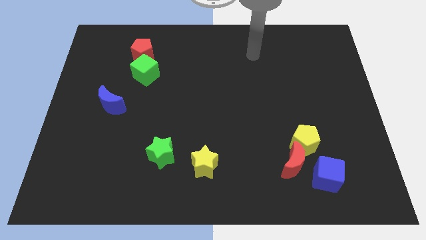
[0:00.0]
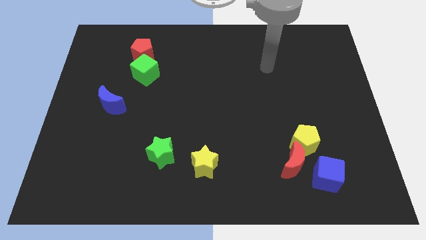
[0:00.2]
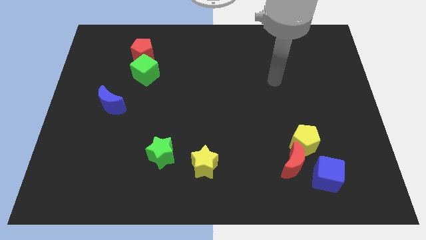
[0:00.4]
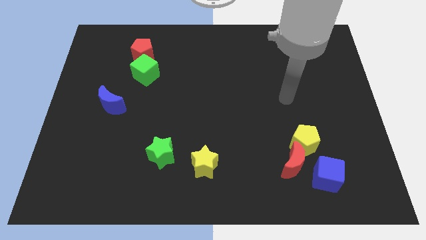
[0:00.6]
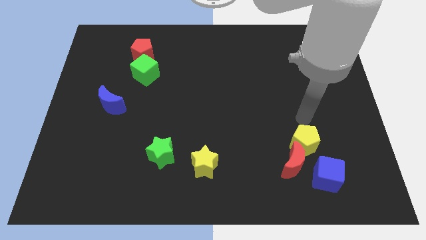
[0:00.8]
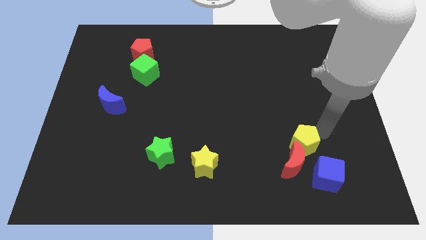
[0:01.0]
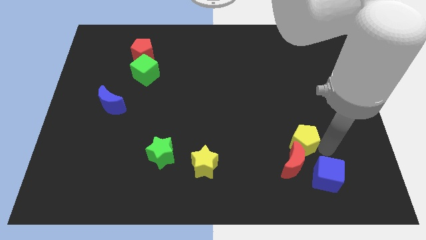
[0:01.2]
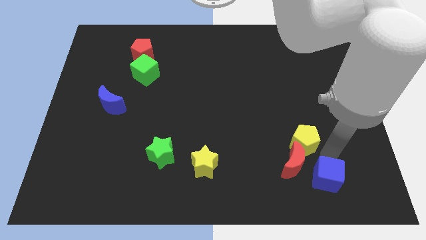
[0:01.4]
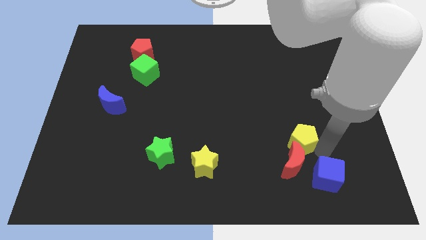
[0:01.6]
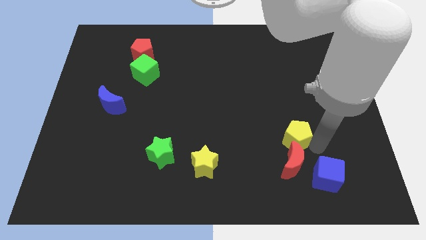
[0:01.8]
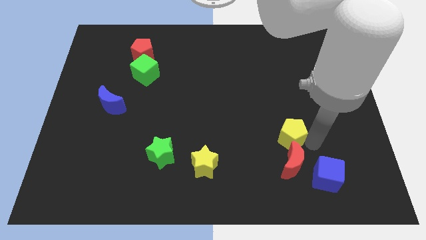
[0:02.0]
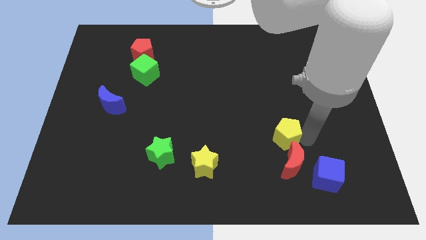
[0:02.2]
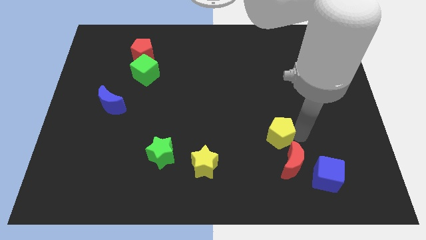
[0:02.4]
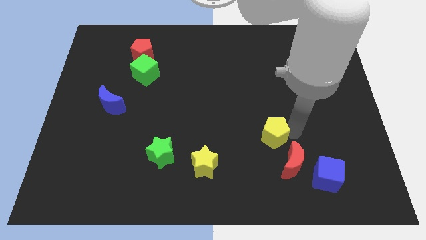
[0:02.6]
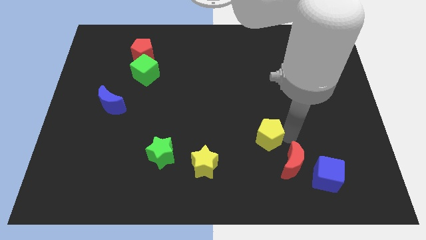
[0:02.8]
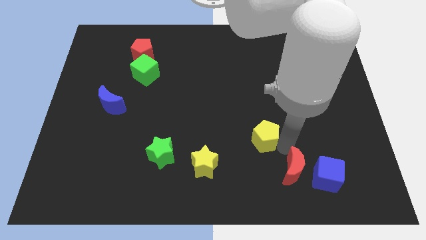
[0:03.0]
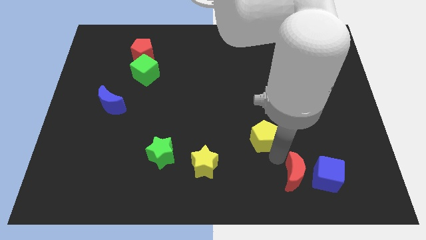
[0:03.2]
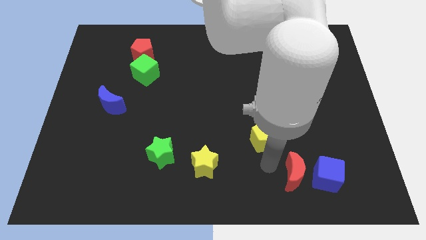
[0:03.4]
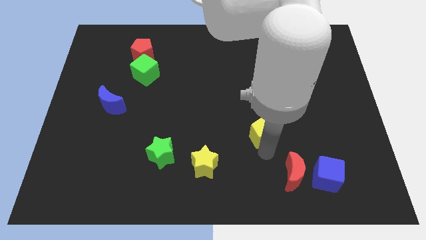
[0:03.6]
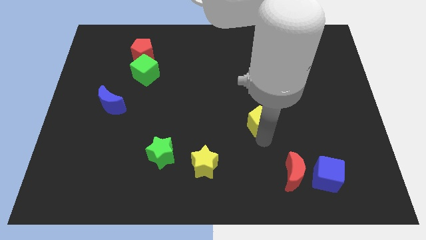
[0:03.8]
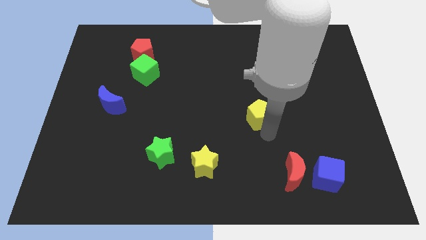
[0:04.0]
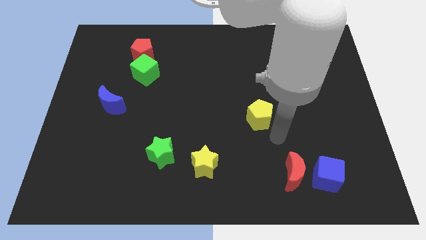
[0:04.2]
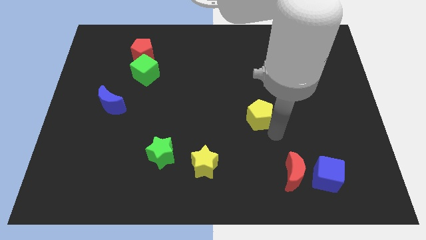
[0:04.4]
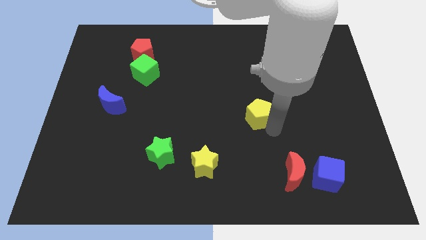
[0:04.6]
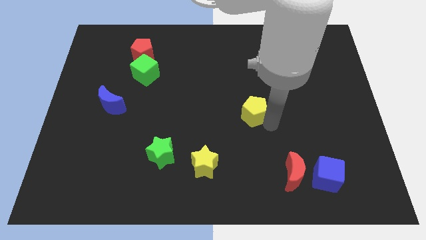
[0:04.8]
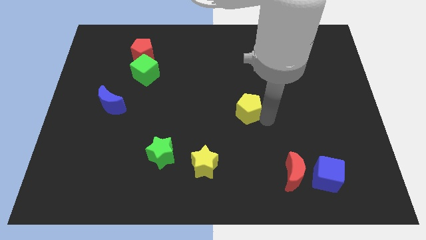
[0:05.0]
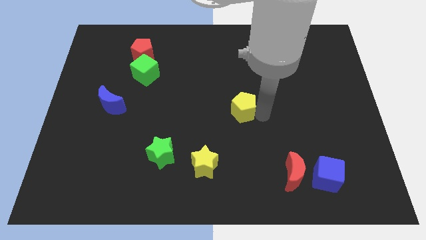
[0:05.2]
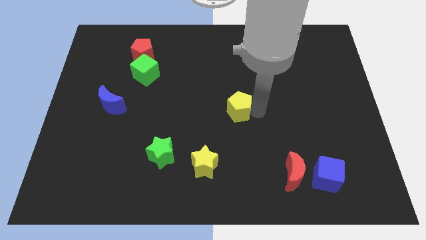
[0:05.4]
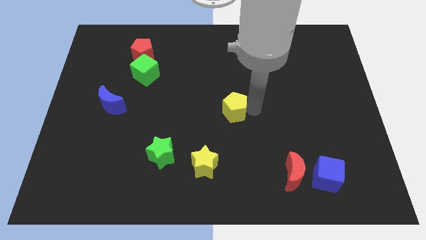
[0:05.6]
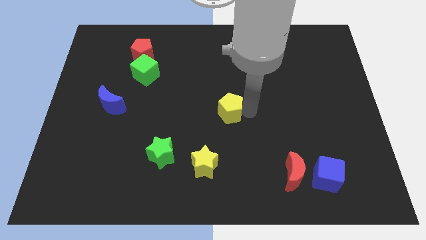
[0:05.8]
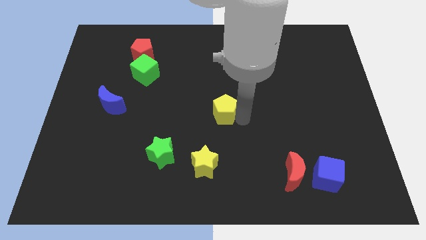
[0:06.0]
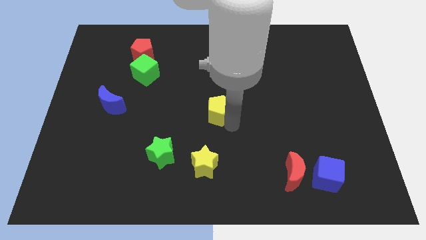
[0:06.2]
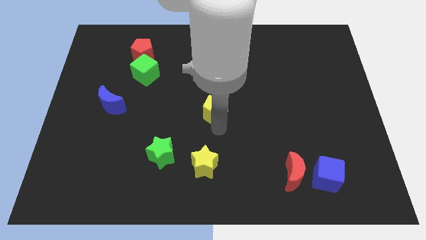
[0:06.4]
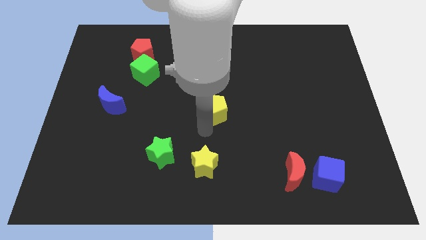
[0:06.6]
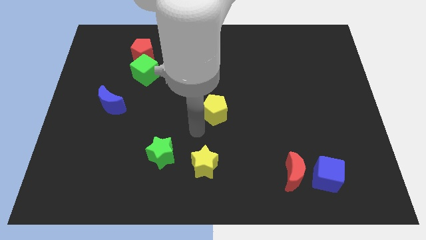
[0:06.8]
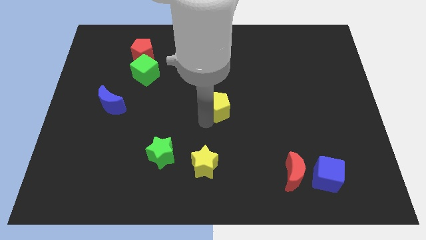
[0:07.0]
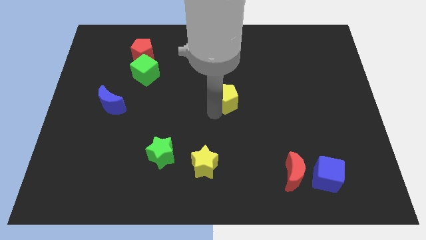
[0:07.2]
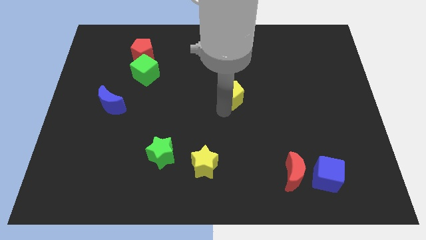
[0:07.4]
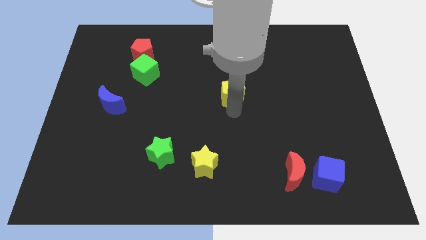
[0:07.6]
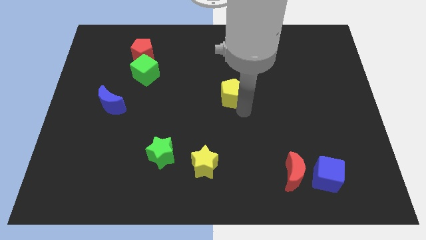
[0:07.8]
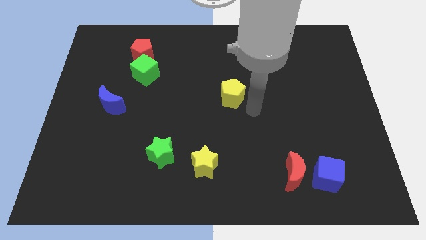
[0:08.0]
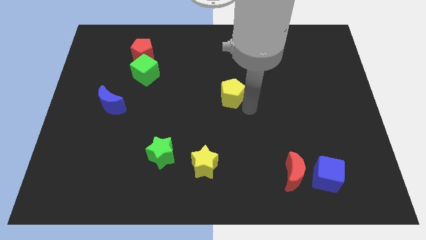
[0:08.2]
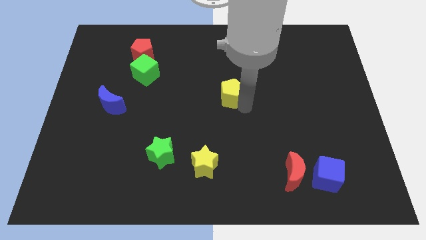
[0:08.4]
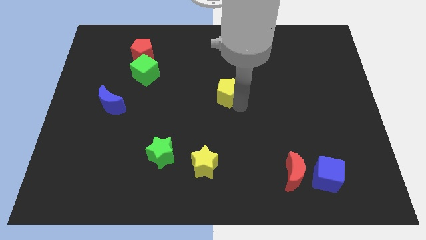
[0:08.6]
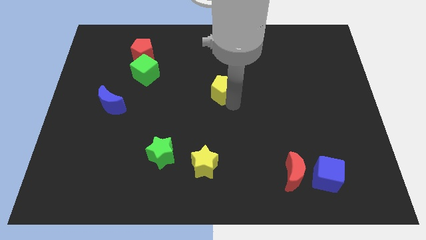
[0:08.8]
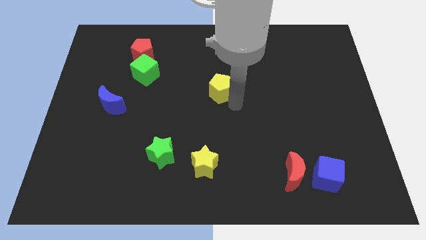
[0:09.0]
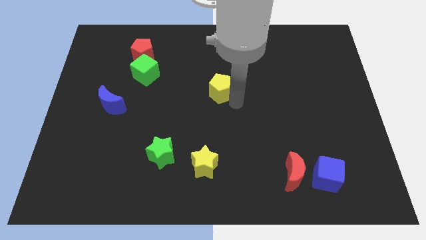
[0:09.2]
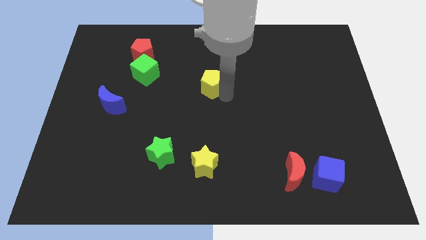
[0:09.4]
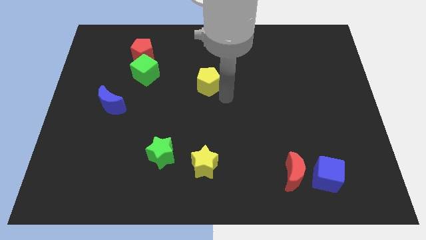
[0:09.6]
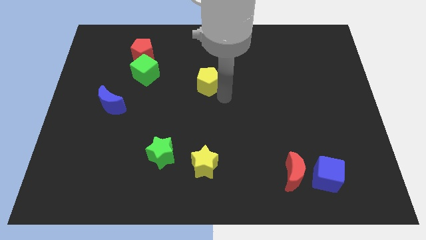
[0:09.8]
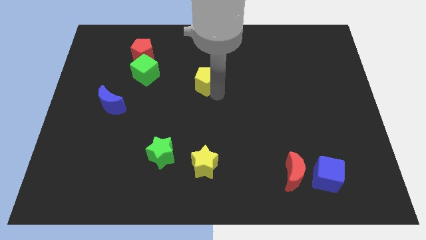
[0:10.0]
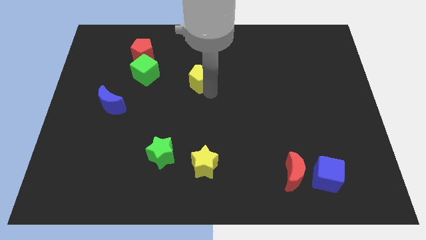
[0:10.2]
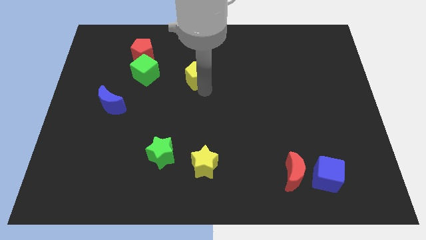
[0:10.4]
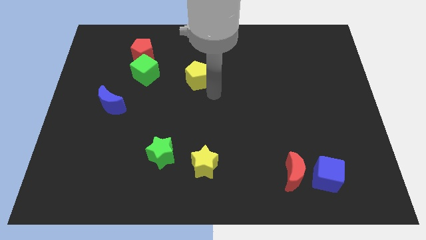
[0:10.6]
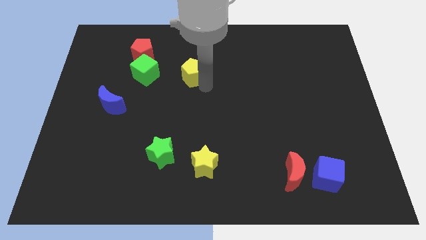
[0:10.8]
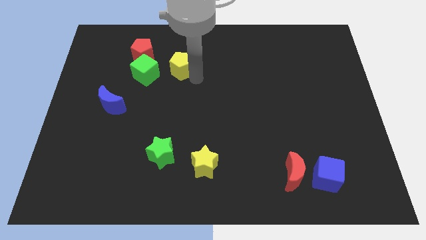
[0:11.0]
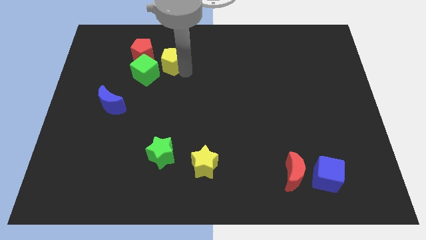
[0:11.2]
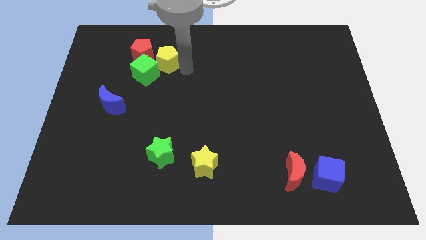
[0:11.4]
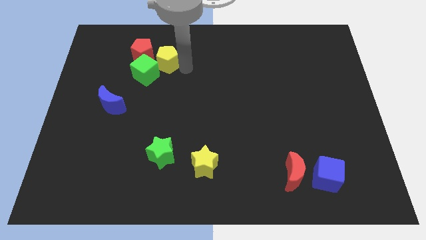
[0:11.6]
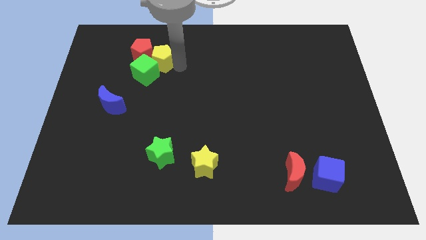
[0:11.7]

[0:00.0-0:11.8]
move the yellow pentagon to the red pentagon

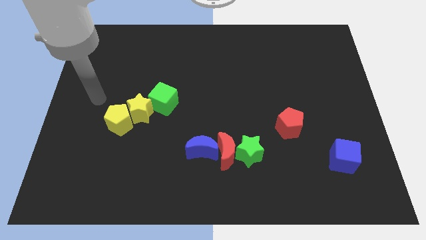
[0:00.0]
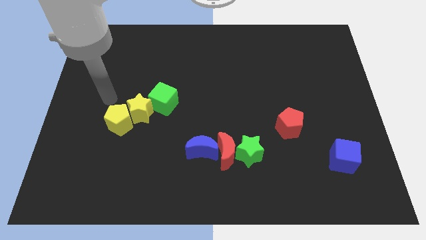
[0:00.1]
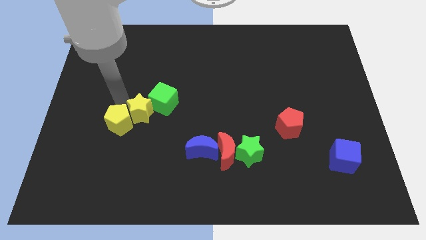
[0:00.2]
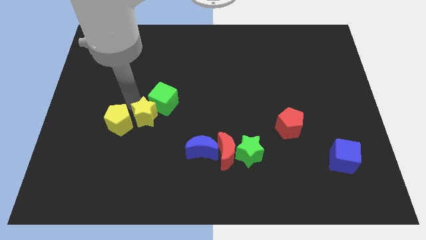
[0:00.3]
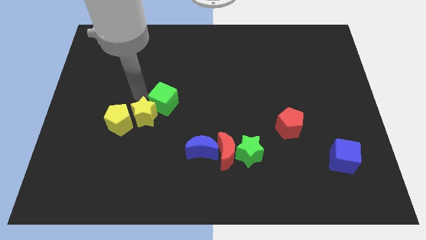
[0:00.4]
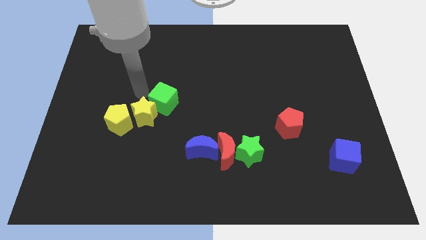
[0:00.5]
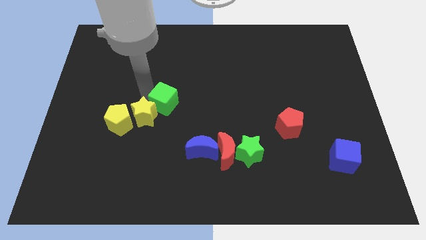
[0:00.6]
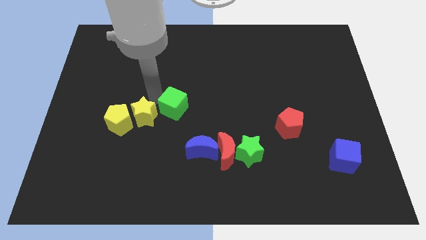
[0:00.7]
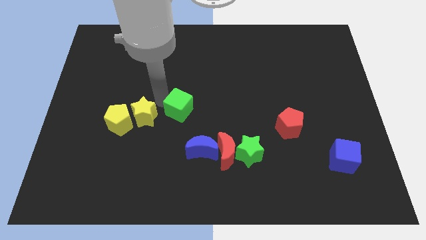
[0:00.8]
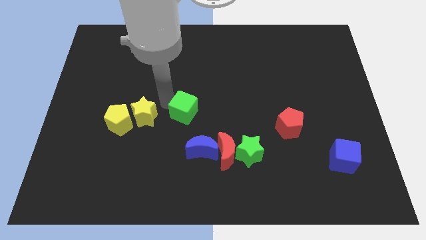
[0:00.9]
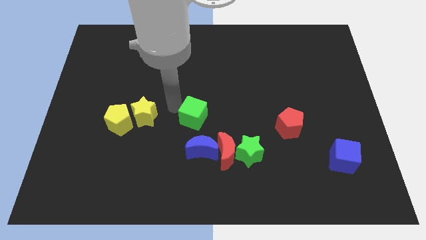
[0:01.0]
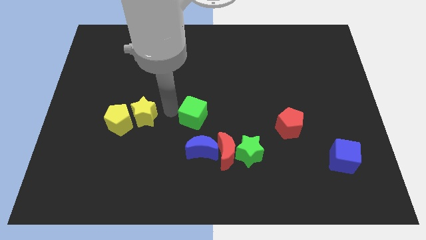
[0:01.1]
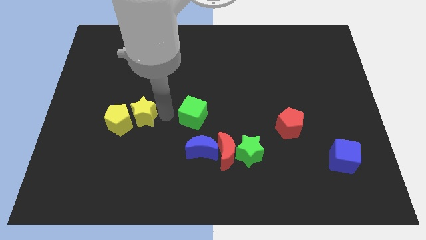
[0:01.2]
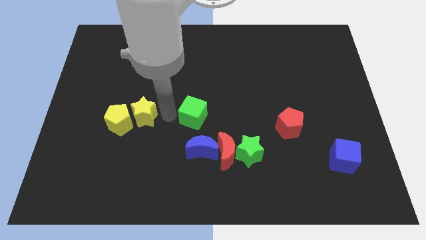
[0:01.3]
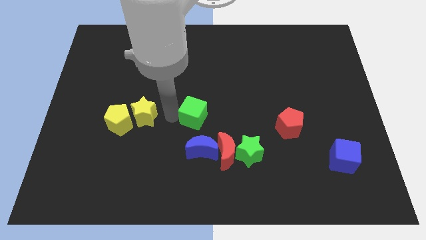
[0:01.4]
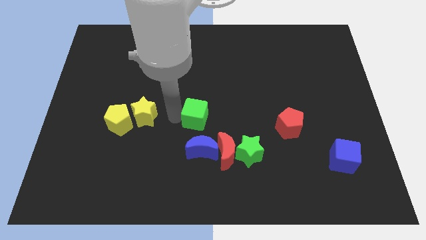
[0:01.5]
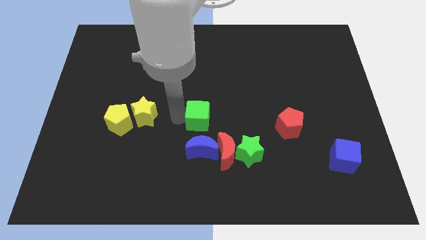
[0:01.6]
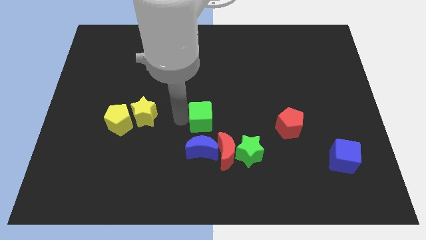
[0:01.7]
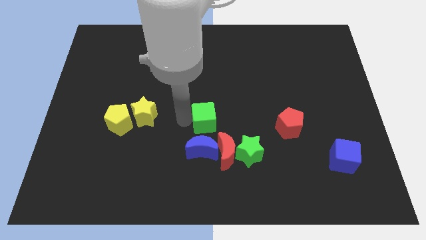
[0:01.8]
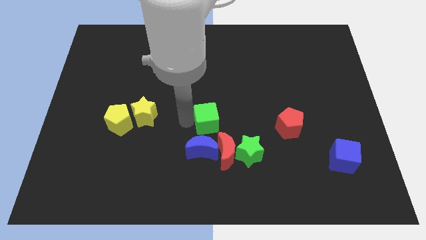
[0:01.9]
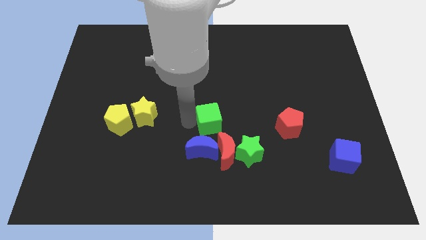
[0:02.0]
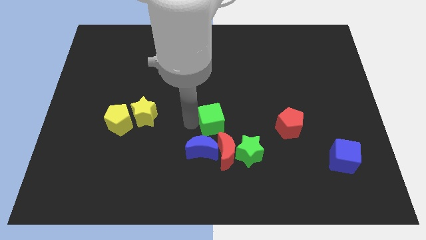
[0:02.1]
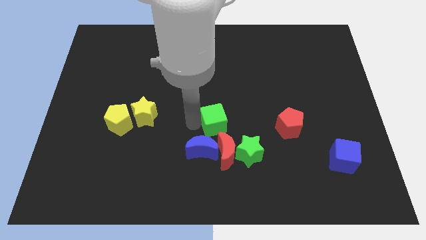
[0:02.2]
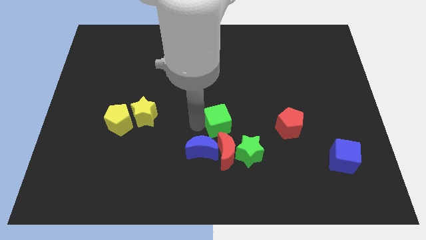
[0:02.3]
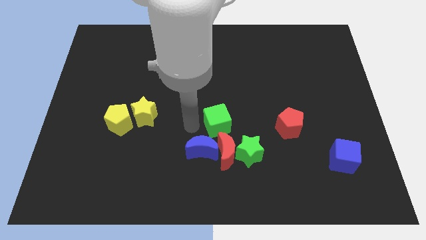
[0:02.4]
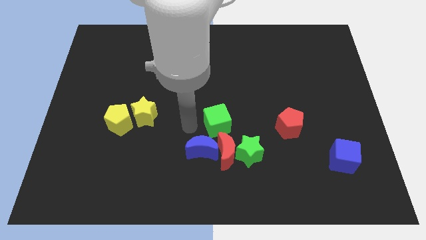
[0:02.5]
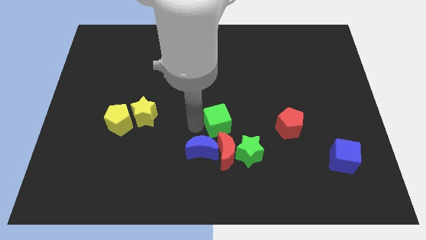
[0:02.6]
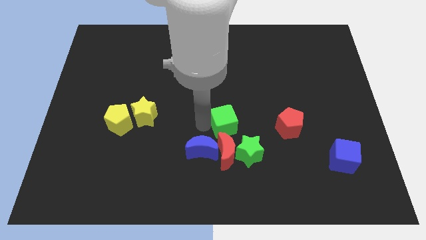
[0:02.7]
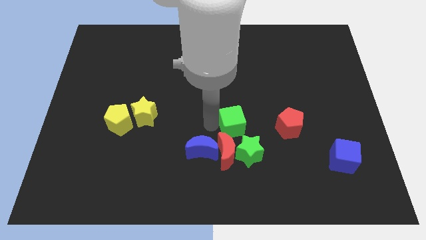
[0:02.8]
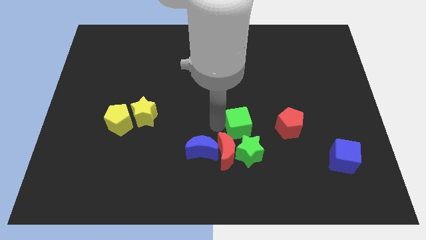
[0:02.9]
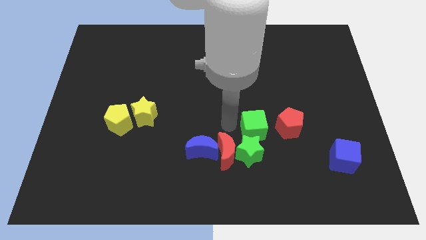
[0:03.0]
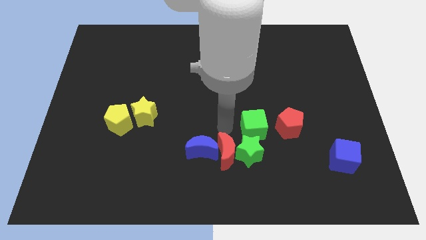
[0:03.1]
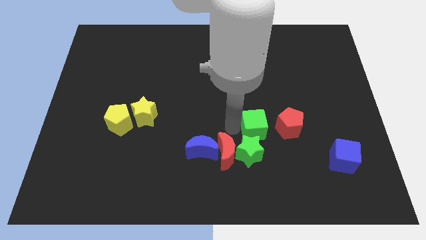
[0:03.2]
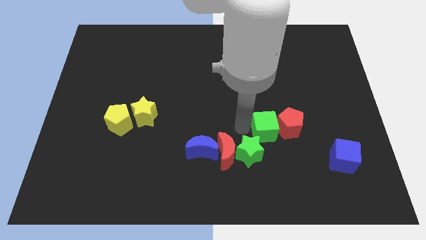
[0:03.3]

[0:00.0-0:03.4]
slide the green cube to the red pentagon
